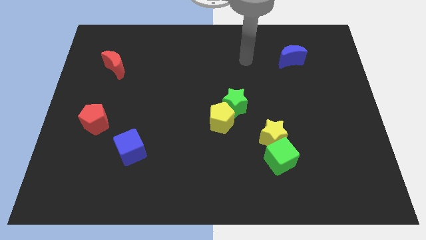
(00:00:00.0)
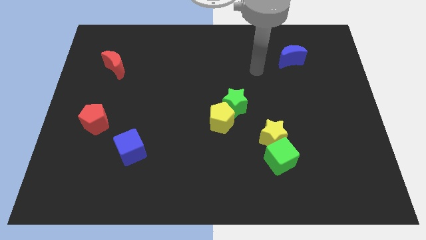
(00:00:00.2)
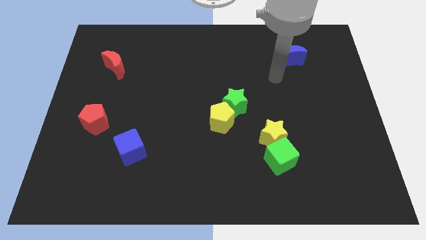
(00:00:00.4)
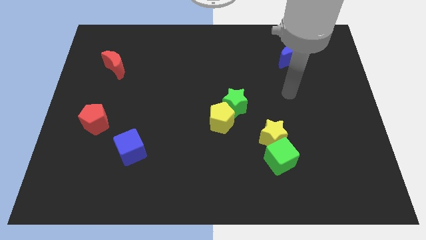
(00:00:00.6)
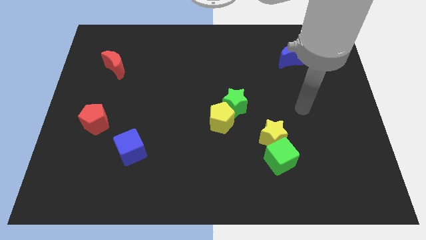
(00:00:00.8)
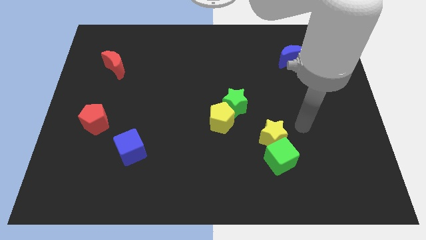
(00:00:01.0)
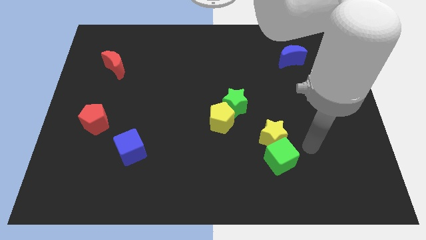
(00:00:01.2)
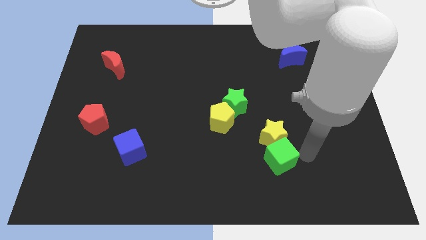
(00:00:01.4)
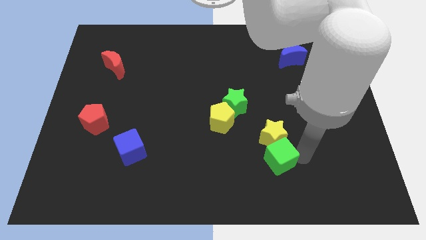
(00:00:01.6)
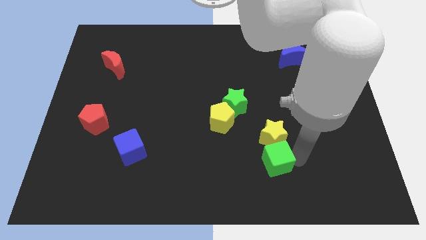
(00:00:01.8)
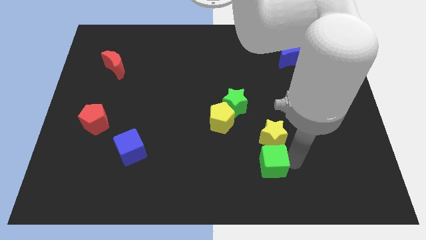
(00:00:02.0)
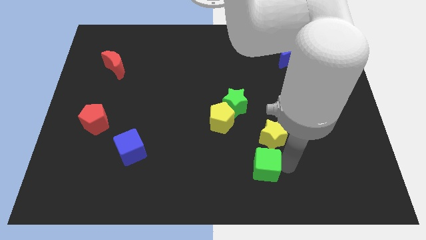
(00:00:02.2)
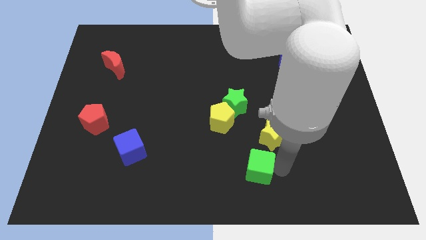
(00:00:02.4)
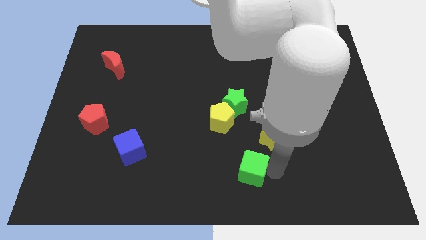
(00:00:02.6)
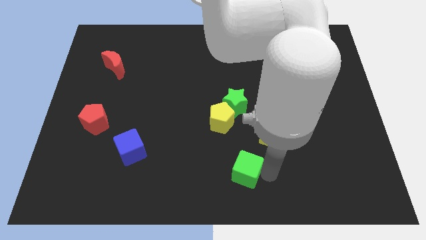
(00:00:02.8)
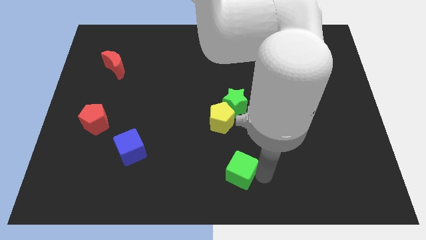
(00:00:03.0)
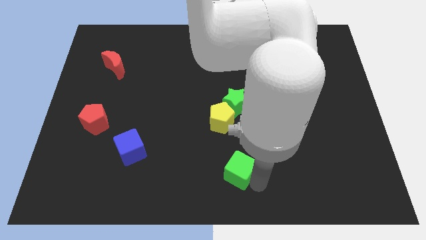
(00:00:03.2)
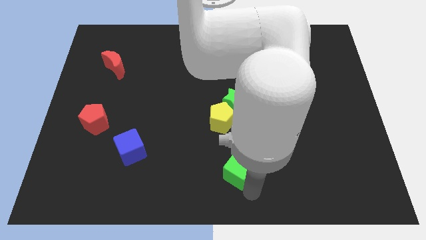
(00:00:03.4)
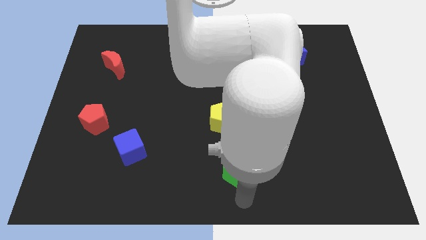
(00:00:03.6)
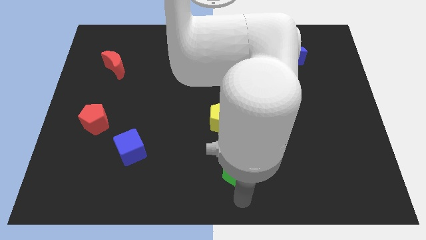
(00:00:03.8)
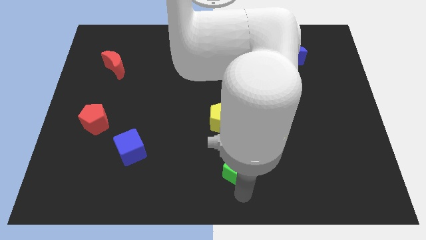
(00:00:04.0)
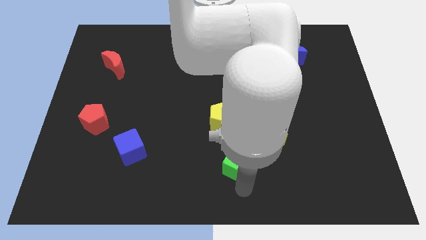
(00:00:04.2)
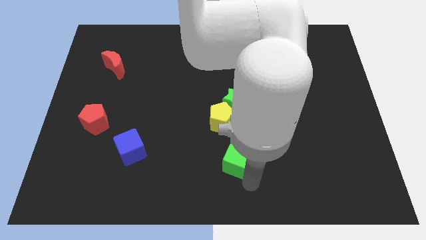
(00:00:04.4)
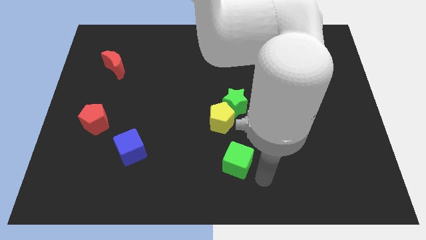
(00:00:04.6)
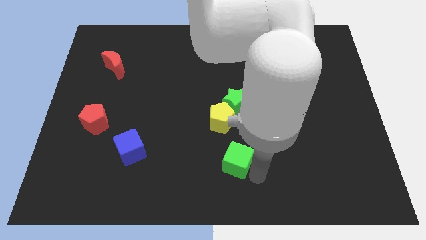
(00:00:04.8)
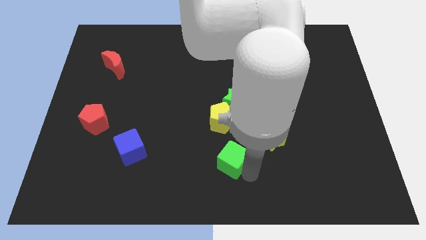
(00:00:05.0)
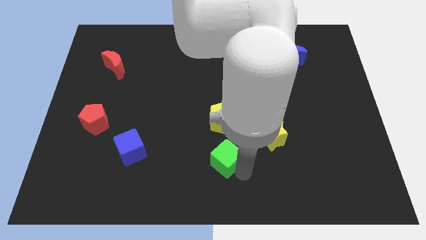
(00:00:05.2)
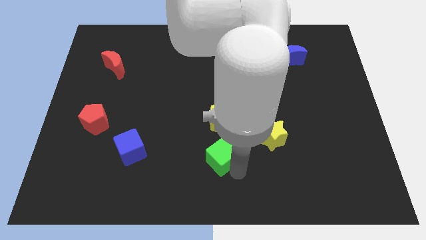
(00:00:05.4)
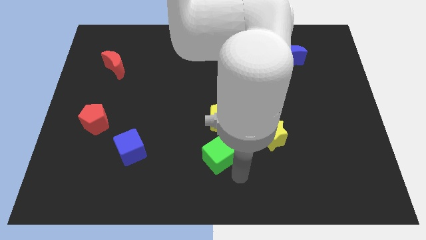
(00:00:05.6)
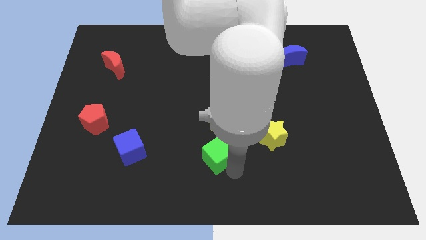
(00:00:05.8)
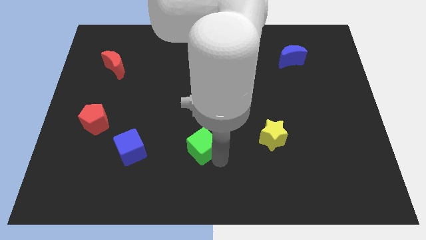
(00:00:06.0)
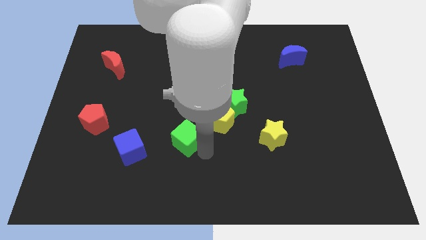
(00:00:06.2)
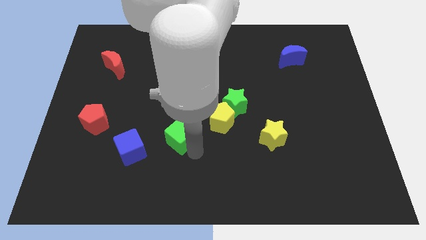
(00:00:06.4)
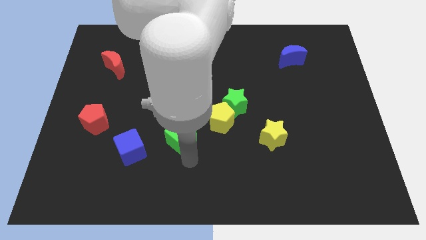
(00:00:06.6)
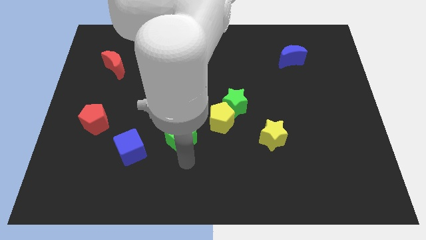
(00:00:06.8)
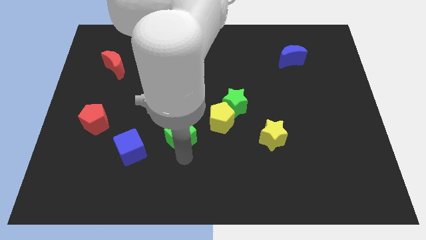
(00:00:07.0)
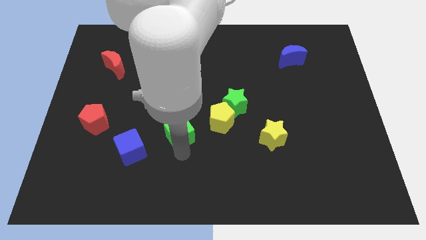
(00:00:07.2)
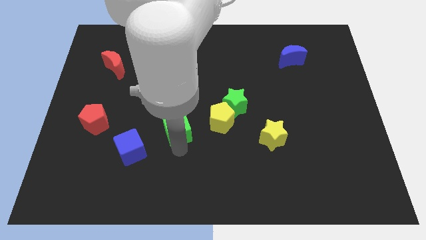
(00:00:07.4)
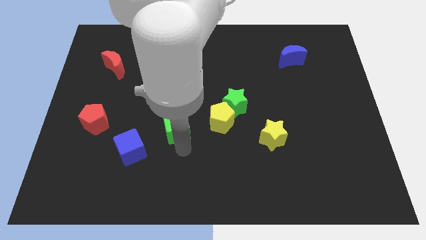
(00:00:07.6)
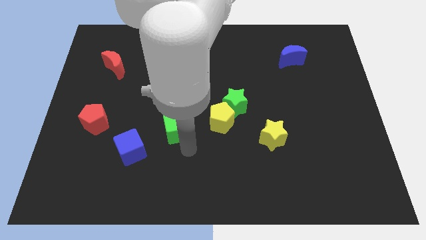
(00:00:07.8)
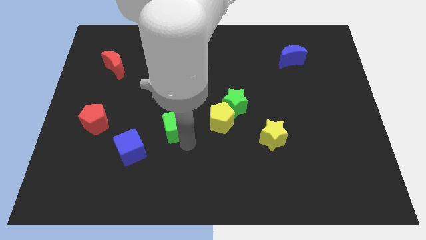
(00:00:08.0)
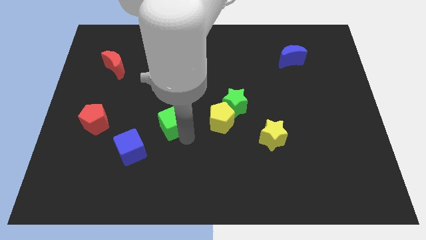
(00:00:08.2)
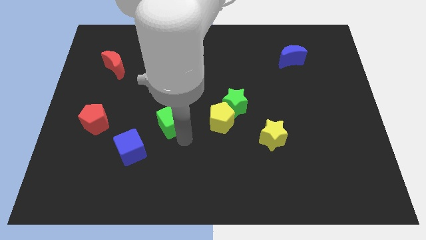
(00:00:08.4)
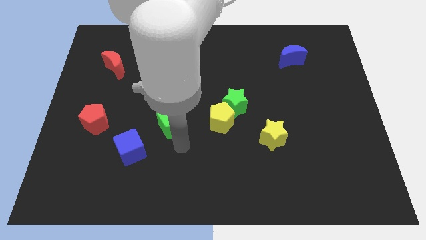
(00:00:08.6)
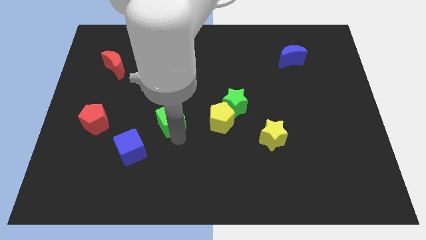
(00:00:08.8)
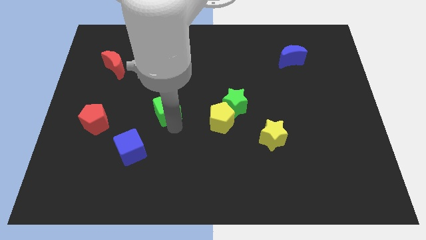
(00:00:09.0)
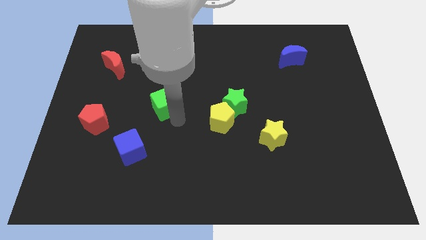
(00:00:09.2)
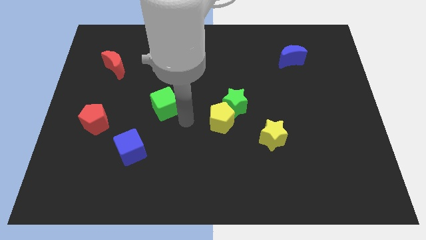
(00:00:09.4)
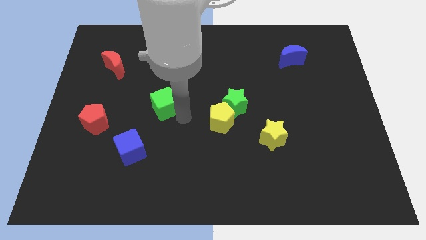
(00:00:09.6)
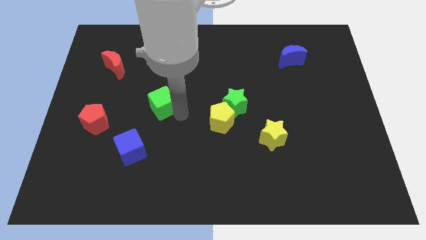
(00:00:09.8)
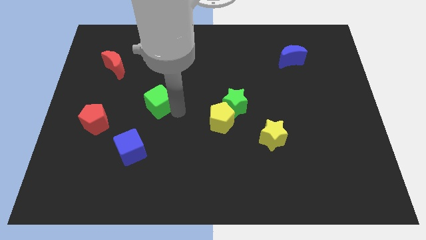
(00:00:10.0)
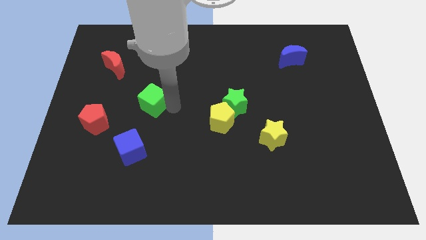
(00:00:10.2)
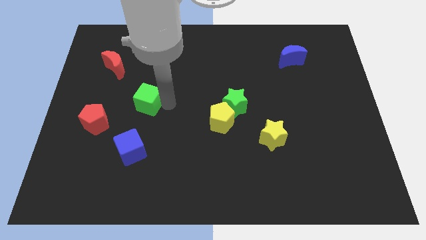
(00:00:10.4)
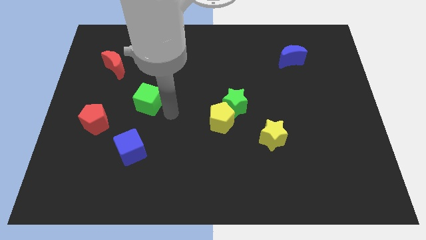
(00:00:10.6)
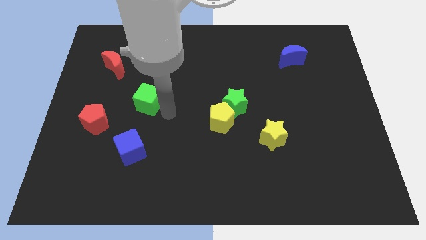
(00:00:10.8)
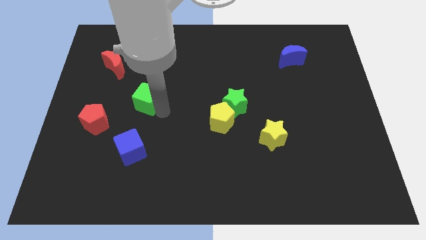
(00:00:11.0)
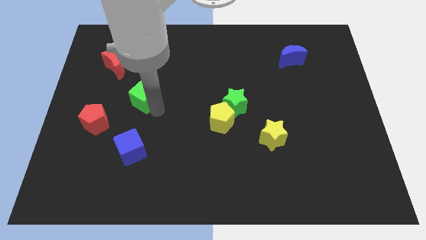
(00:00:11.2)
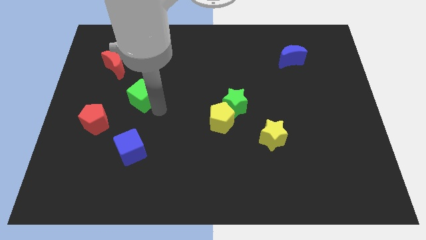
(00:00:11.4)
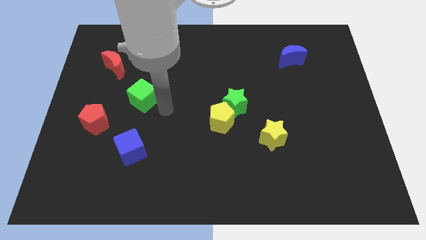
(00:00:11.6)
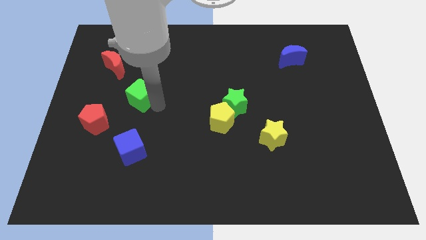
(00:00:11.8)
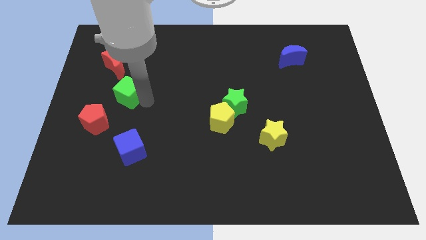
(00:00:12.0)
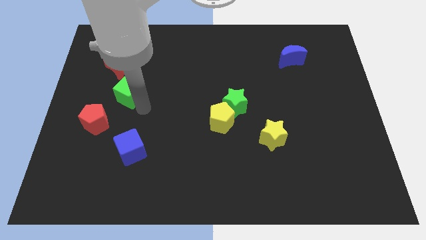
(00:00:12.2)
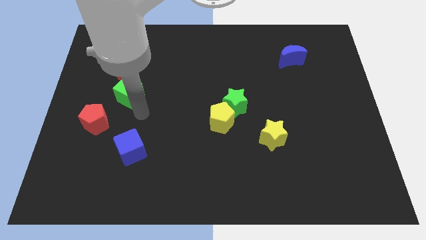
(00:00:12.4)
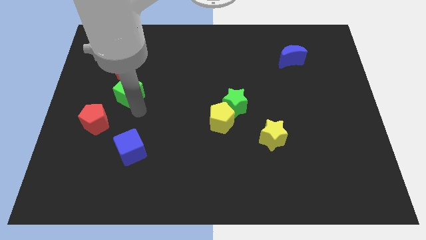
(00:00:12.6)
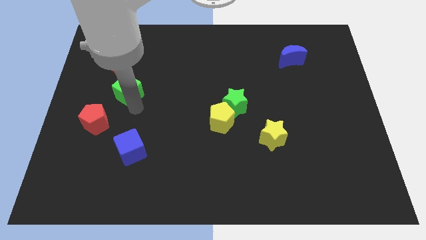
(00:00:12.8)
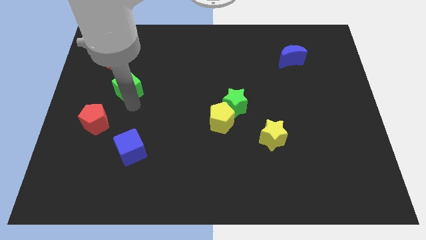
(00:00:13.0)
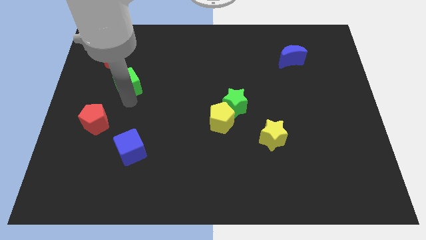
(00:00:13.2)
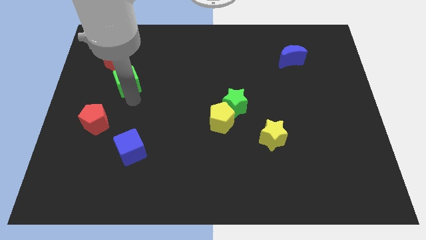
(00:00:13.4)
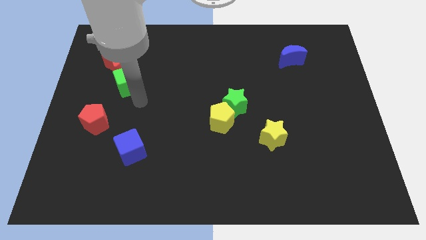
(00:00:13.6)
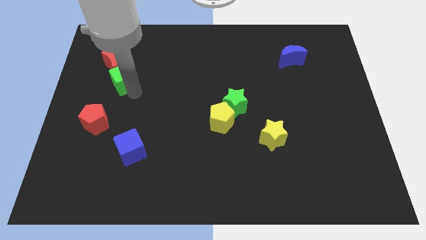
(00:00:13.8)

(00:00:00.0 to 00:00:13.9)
put the green cube to the red moon
